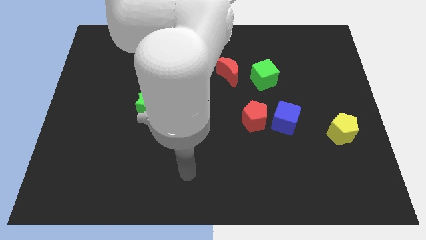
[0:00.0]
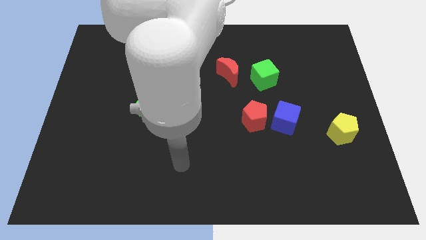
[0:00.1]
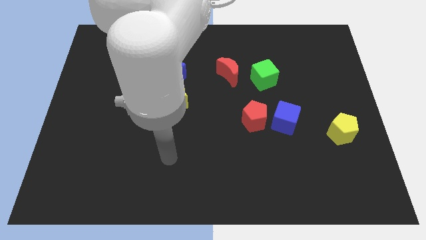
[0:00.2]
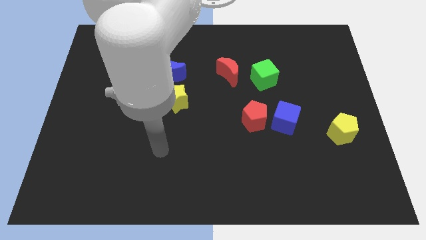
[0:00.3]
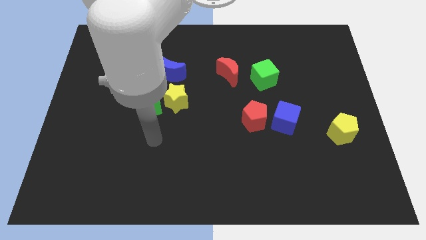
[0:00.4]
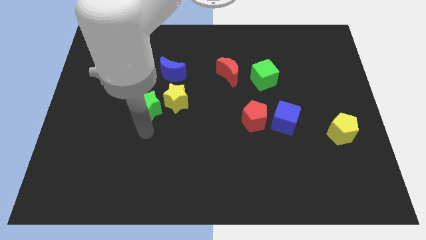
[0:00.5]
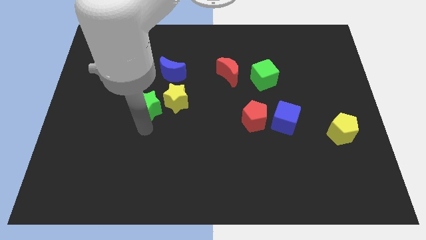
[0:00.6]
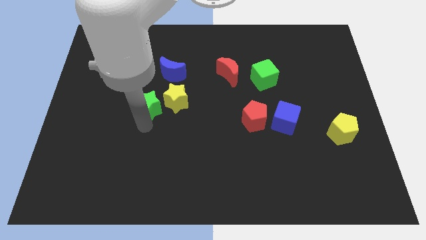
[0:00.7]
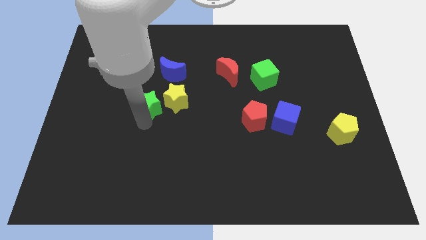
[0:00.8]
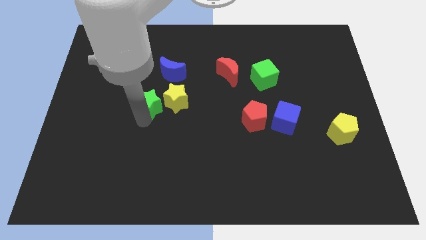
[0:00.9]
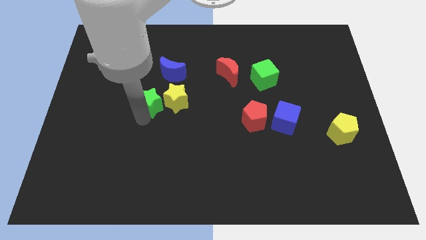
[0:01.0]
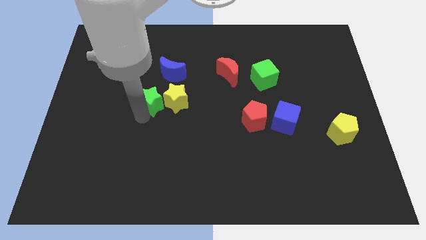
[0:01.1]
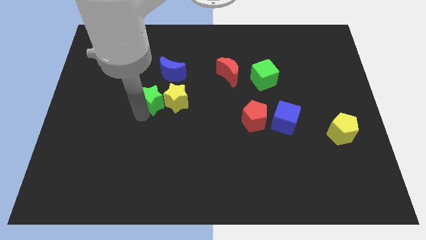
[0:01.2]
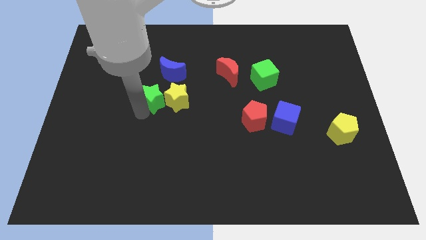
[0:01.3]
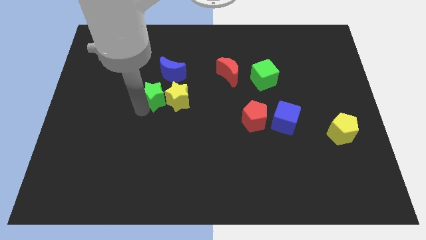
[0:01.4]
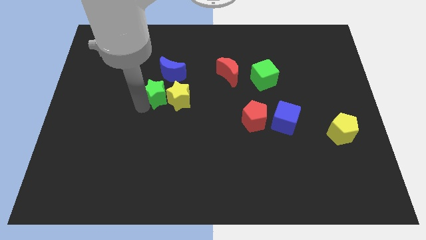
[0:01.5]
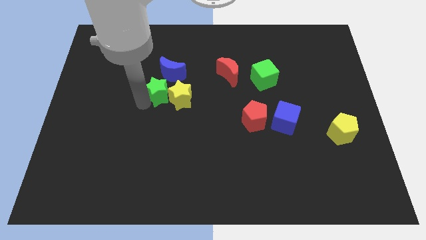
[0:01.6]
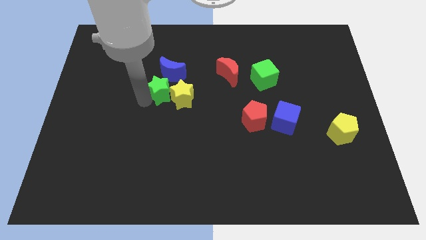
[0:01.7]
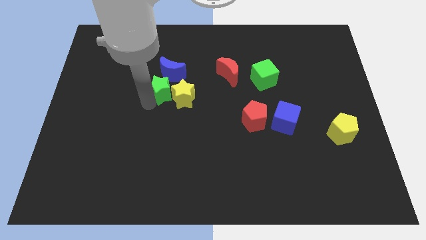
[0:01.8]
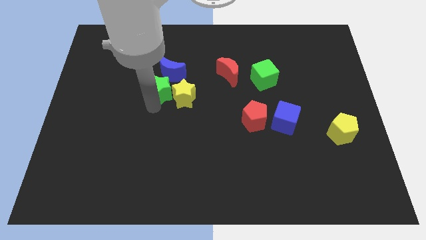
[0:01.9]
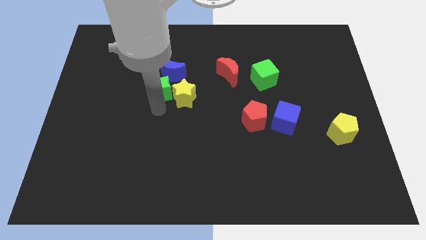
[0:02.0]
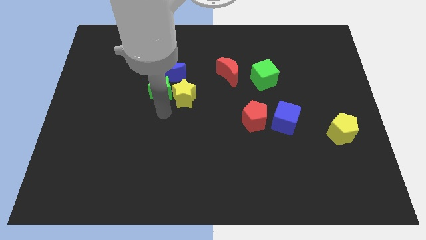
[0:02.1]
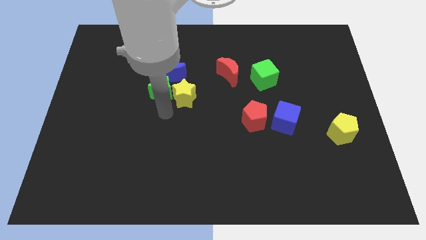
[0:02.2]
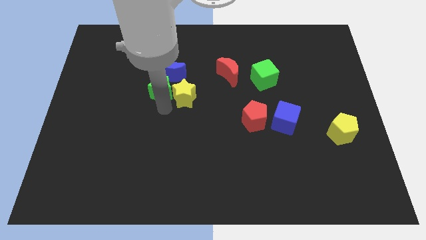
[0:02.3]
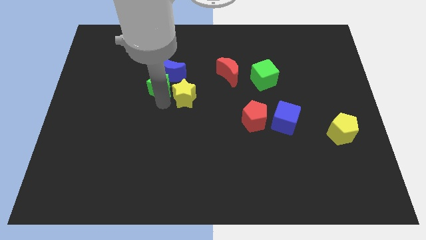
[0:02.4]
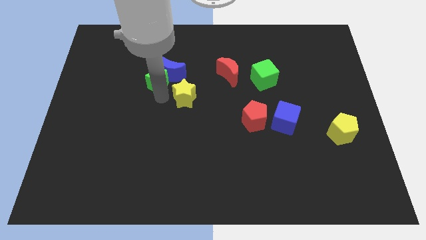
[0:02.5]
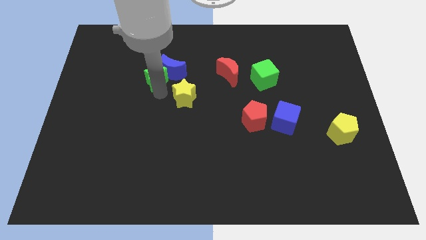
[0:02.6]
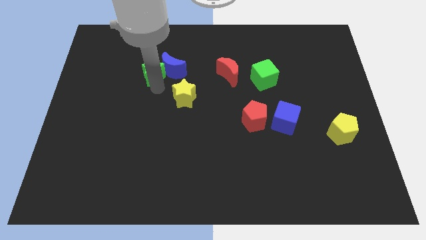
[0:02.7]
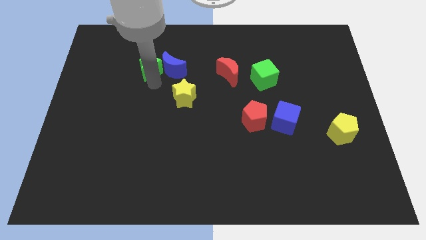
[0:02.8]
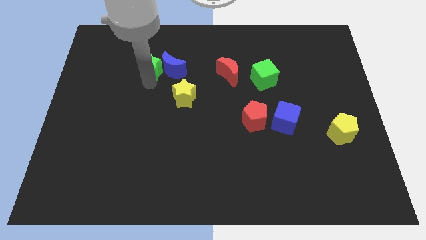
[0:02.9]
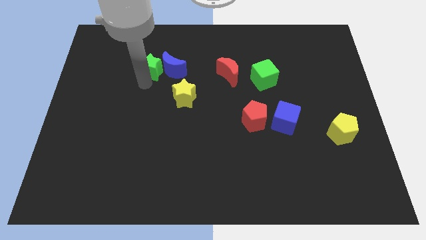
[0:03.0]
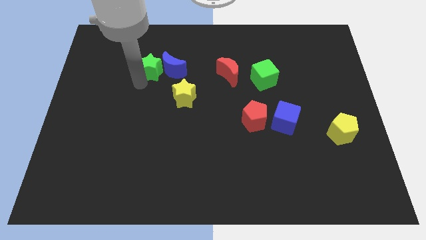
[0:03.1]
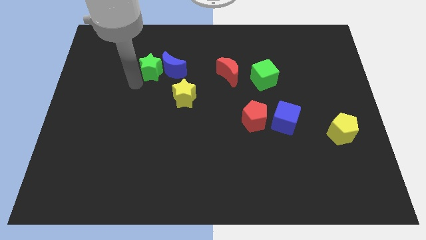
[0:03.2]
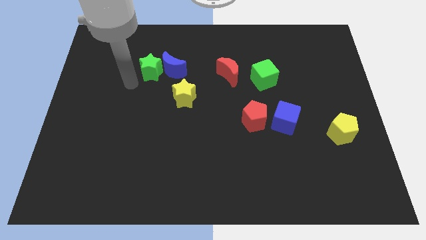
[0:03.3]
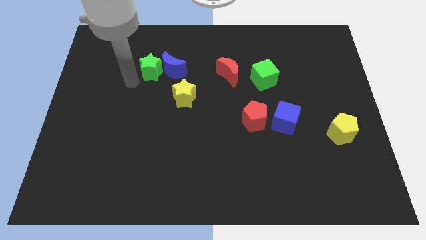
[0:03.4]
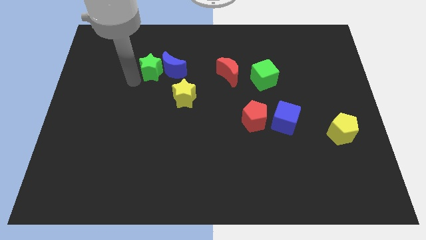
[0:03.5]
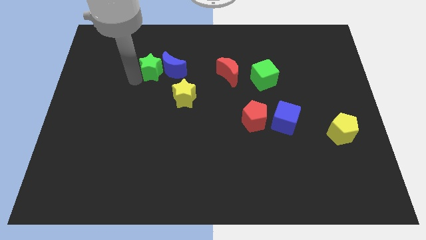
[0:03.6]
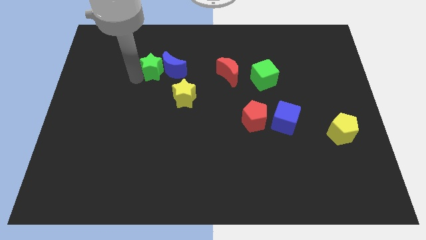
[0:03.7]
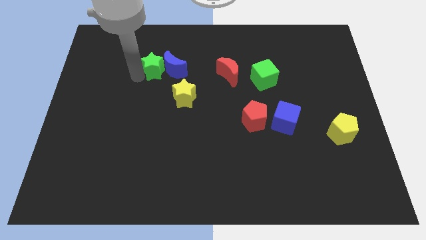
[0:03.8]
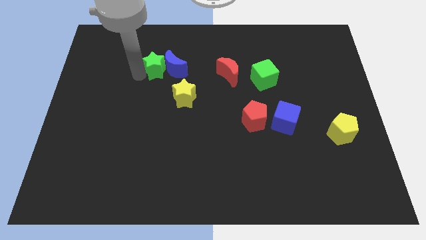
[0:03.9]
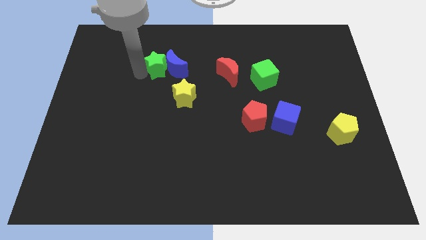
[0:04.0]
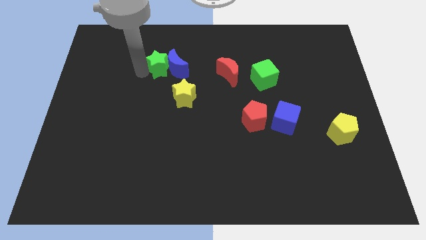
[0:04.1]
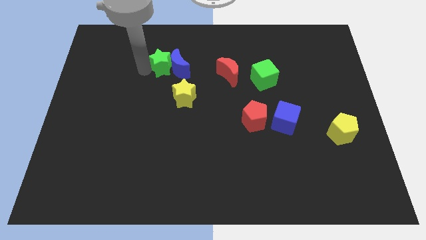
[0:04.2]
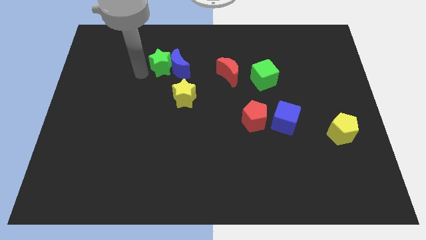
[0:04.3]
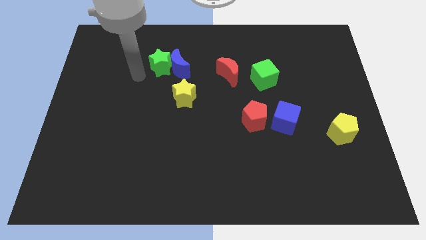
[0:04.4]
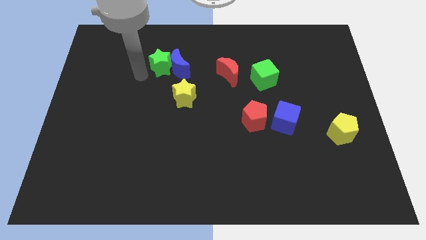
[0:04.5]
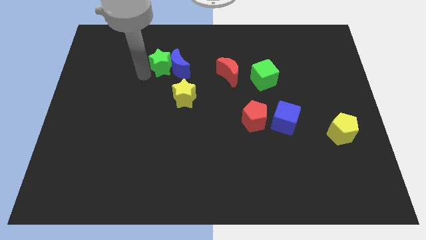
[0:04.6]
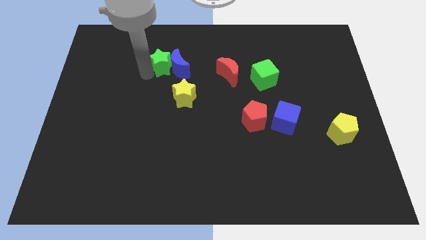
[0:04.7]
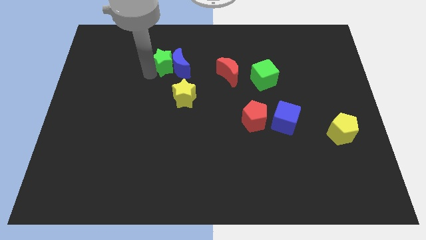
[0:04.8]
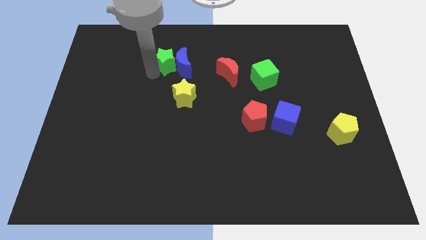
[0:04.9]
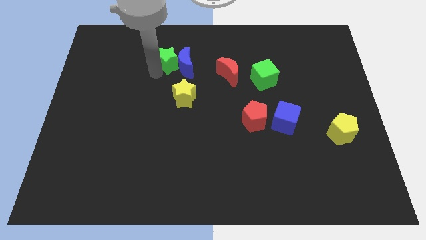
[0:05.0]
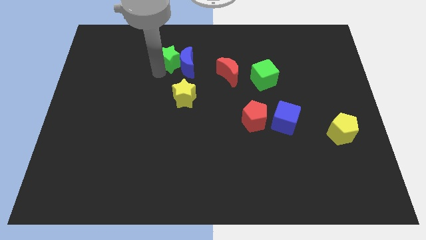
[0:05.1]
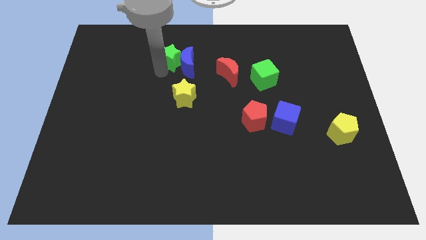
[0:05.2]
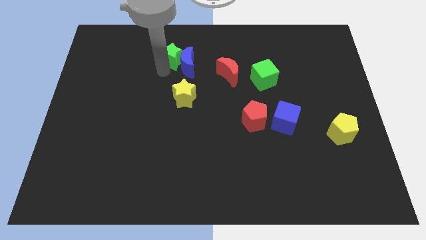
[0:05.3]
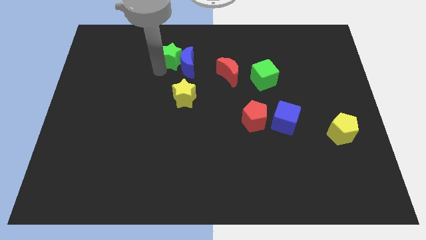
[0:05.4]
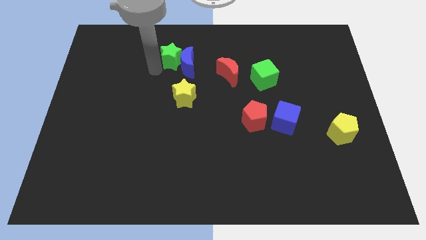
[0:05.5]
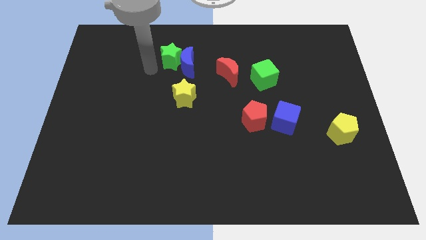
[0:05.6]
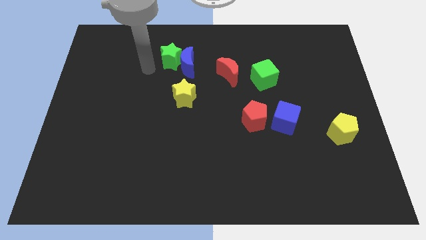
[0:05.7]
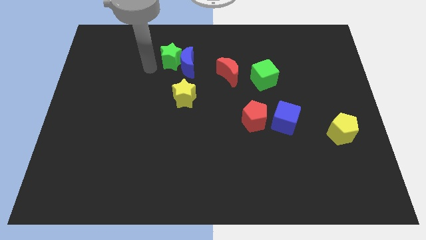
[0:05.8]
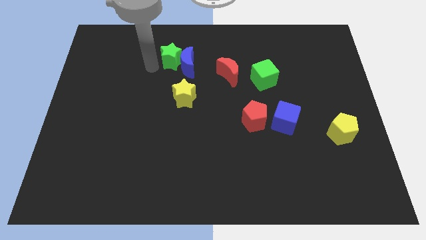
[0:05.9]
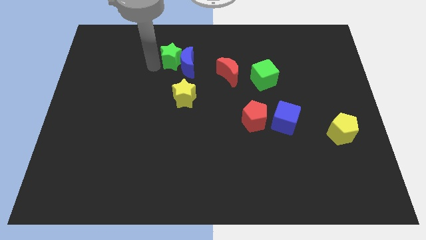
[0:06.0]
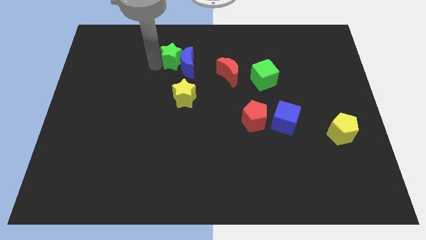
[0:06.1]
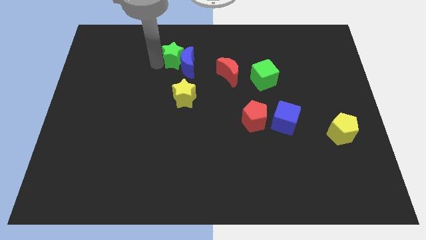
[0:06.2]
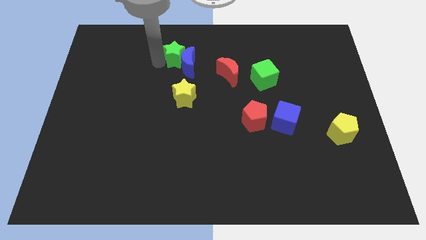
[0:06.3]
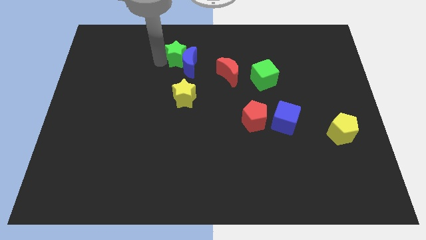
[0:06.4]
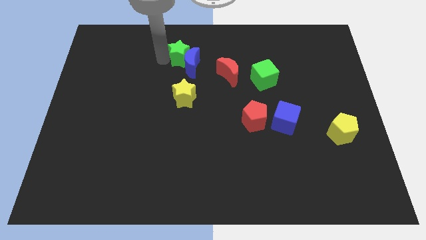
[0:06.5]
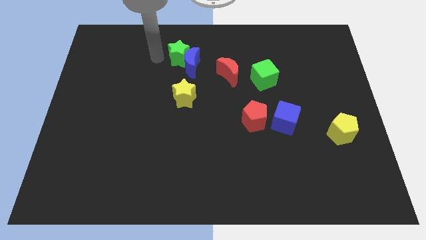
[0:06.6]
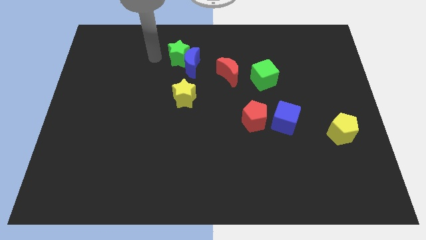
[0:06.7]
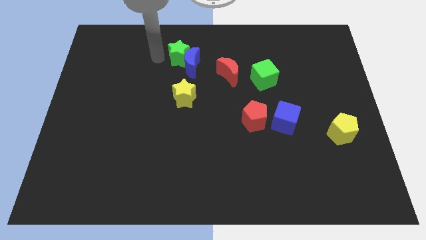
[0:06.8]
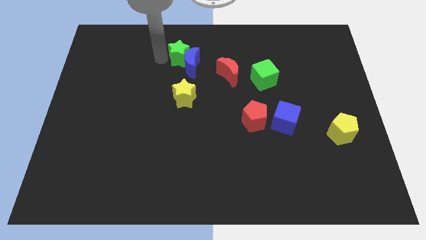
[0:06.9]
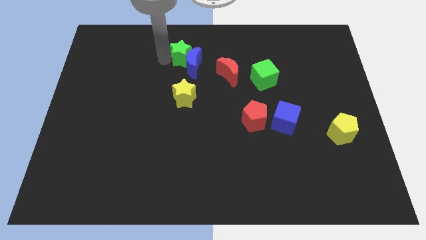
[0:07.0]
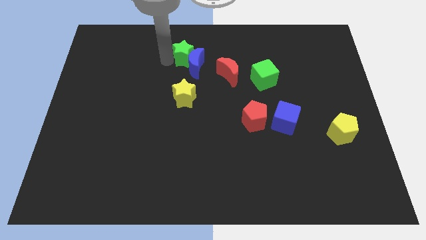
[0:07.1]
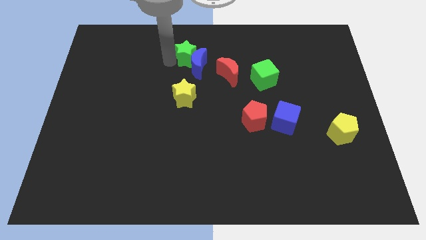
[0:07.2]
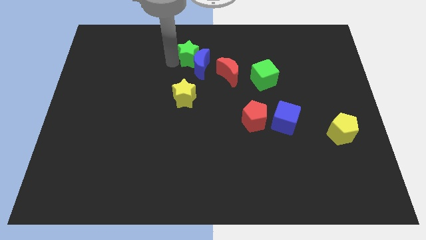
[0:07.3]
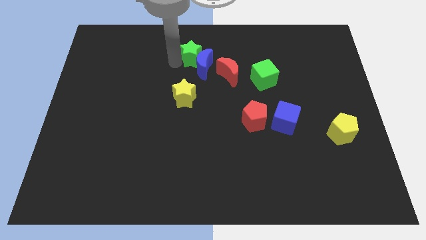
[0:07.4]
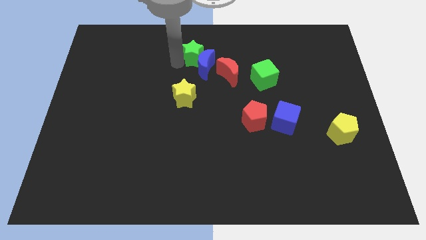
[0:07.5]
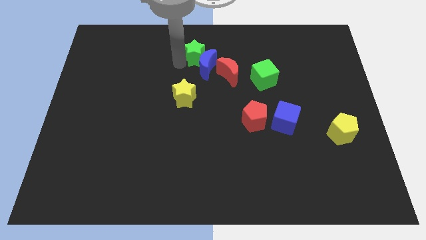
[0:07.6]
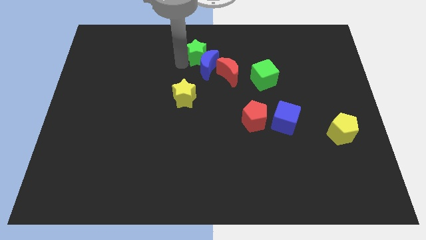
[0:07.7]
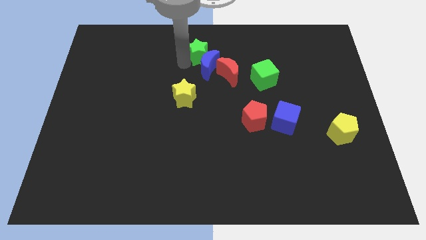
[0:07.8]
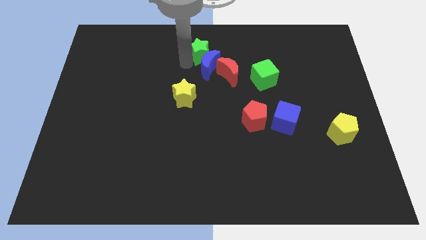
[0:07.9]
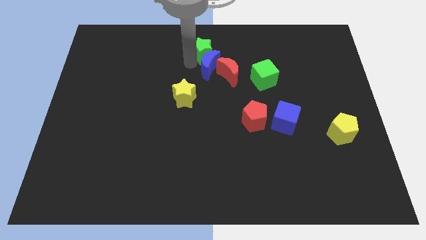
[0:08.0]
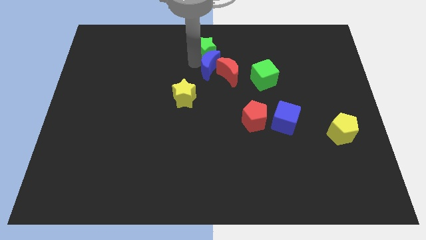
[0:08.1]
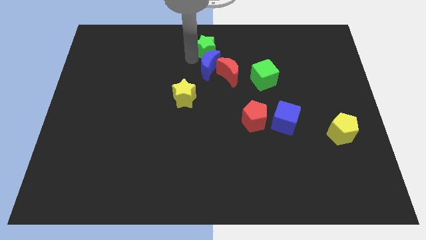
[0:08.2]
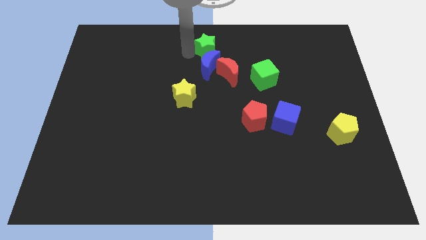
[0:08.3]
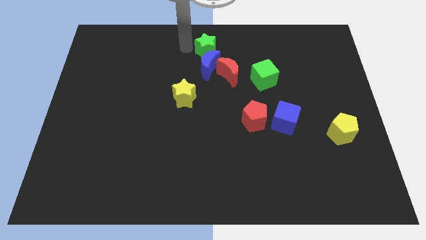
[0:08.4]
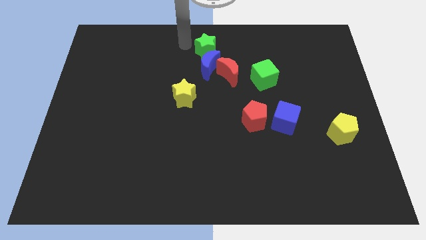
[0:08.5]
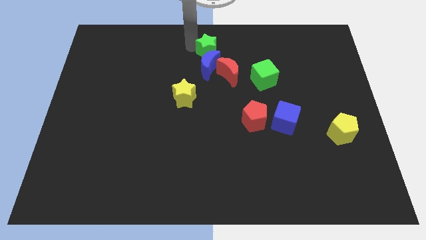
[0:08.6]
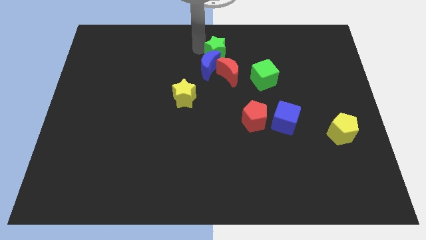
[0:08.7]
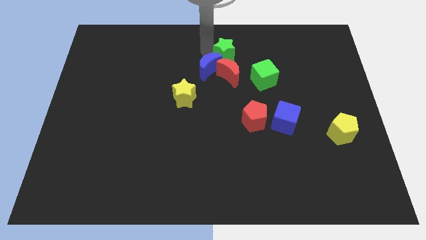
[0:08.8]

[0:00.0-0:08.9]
push the green star to the top left of the green cube
